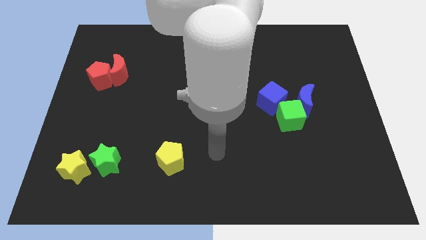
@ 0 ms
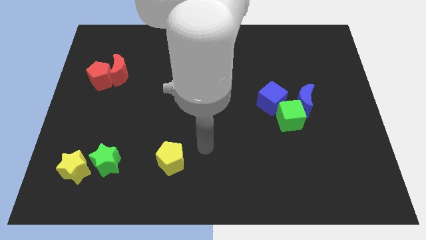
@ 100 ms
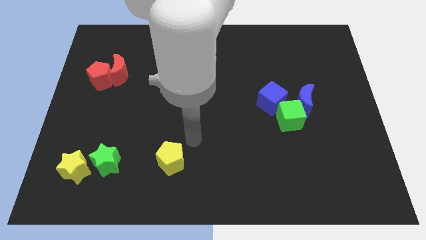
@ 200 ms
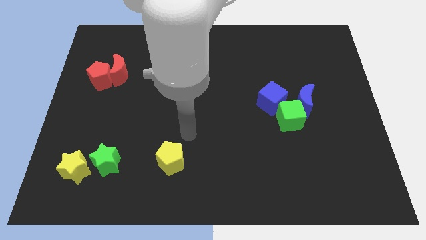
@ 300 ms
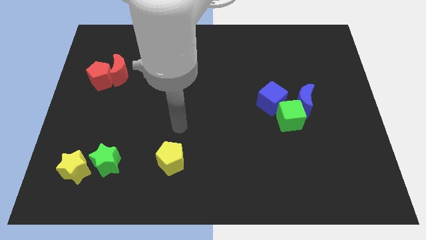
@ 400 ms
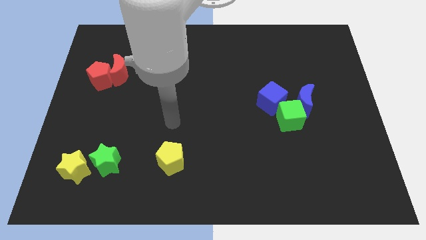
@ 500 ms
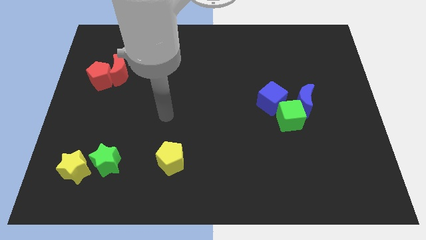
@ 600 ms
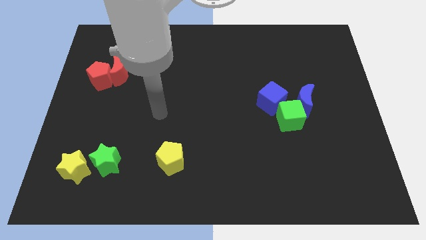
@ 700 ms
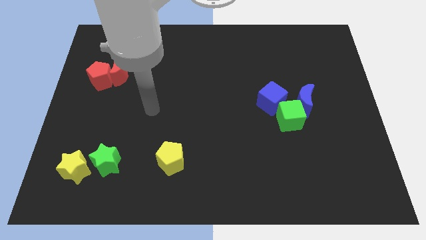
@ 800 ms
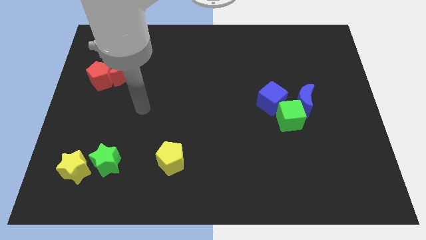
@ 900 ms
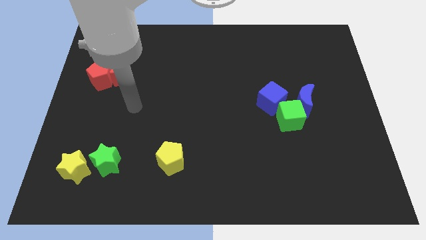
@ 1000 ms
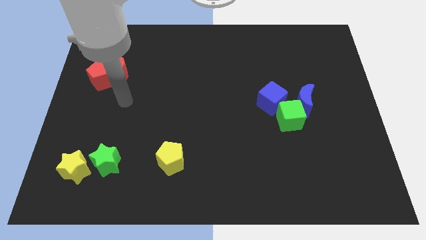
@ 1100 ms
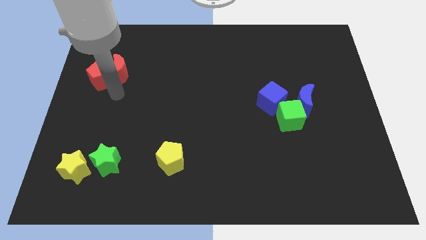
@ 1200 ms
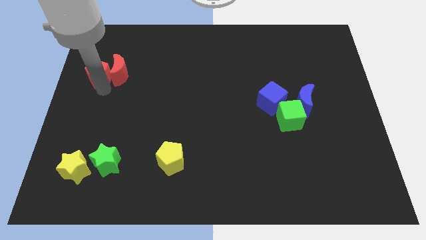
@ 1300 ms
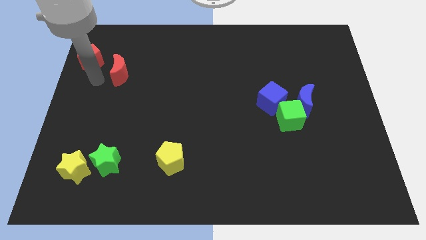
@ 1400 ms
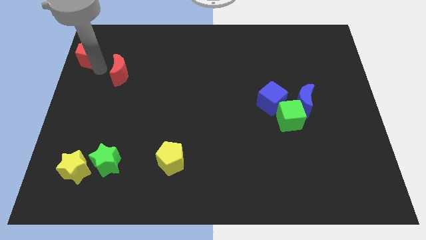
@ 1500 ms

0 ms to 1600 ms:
move the red moon away from the red pentagon

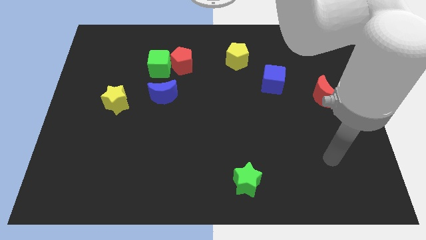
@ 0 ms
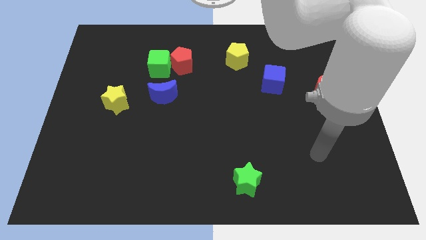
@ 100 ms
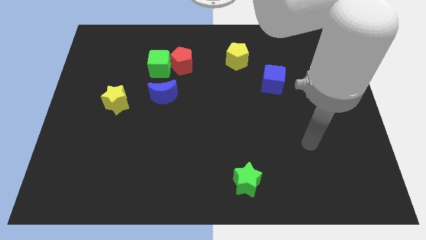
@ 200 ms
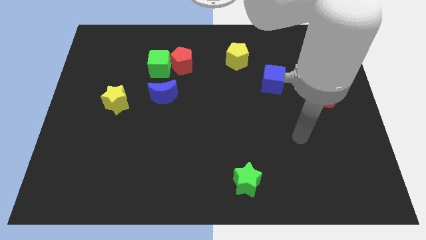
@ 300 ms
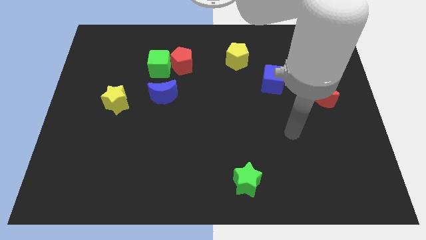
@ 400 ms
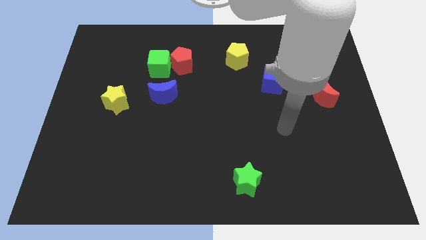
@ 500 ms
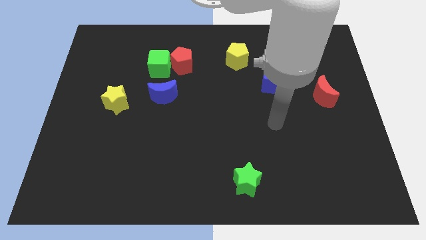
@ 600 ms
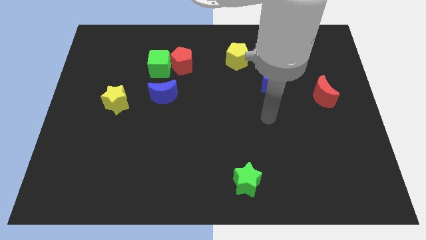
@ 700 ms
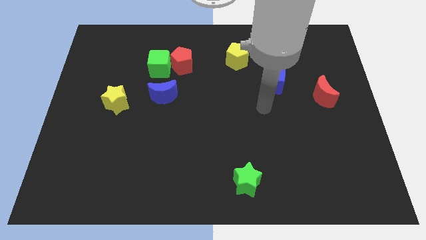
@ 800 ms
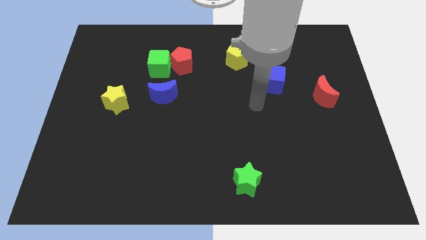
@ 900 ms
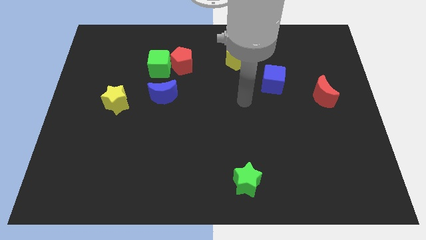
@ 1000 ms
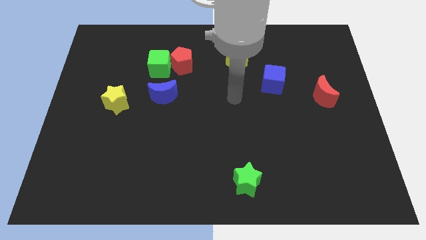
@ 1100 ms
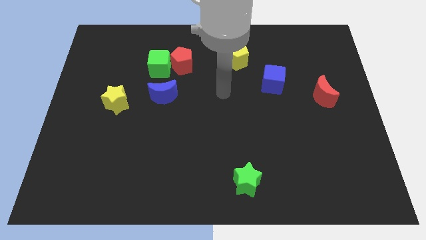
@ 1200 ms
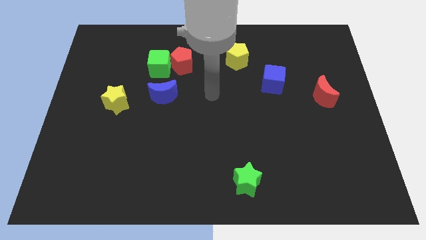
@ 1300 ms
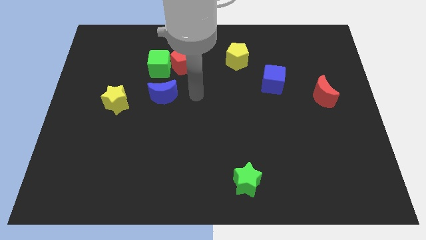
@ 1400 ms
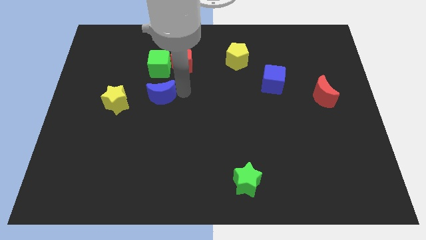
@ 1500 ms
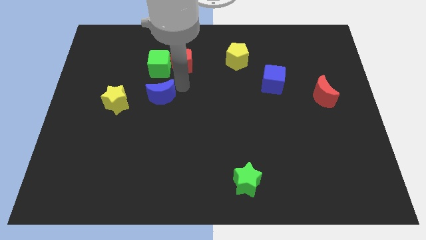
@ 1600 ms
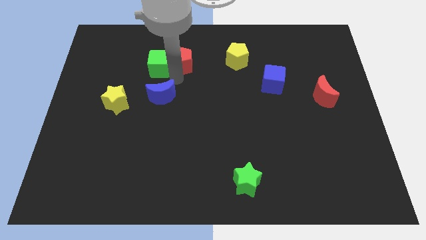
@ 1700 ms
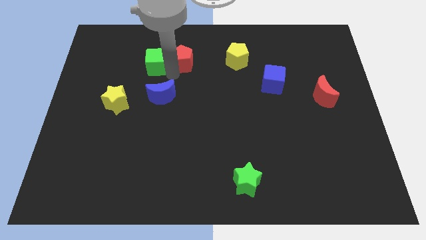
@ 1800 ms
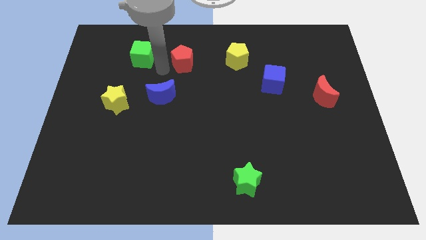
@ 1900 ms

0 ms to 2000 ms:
pull the red pentagon apart from the green cube

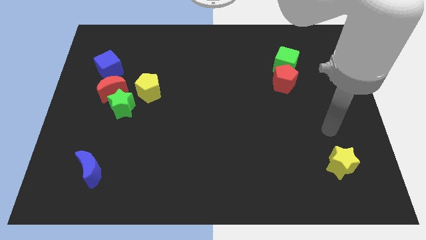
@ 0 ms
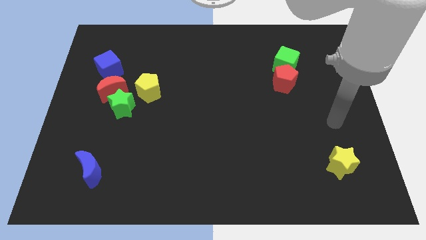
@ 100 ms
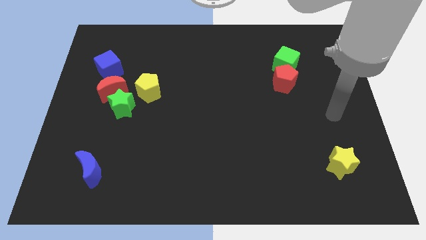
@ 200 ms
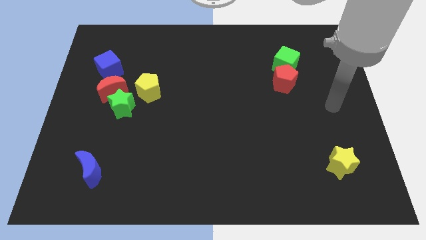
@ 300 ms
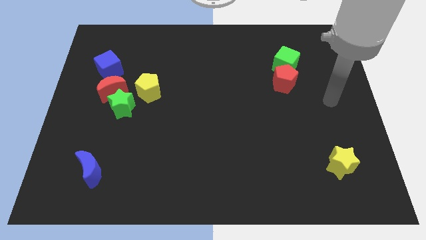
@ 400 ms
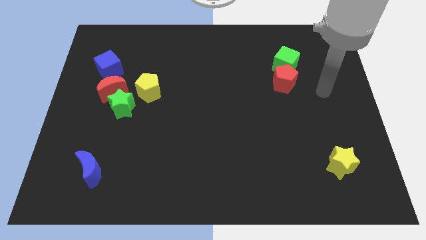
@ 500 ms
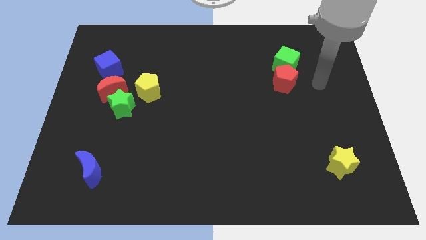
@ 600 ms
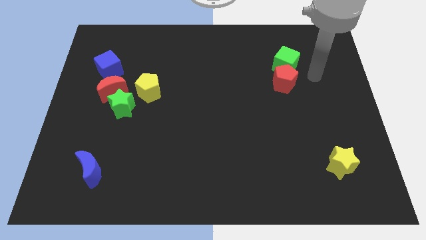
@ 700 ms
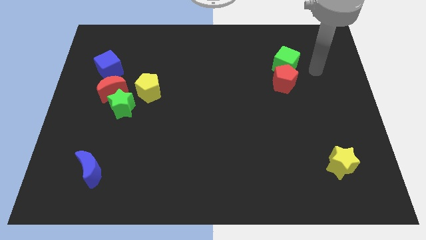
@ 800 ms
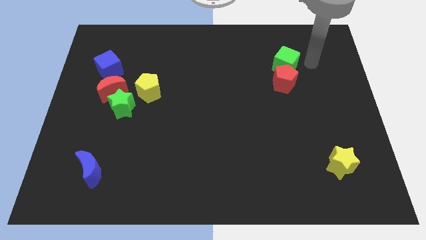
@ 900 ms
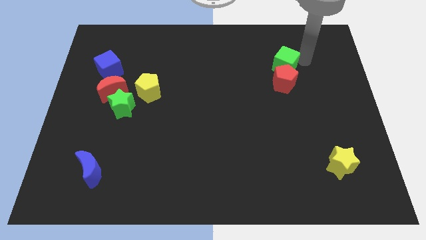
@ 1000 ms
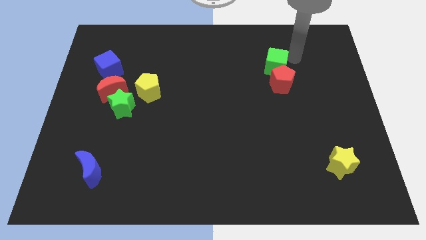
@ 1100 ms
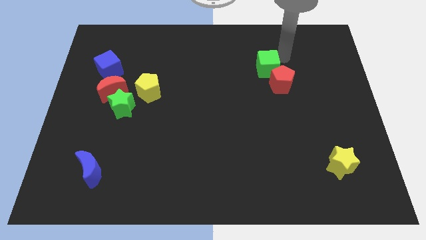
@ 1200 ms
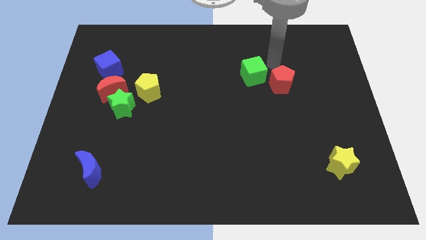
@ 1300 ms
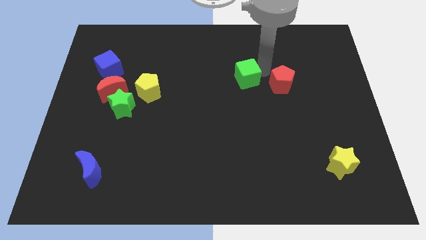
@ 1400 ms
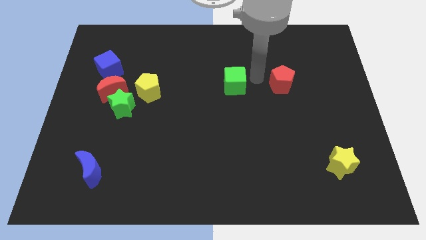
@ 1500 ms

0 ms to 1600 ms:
separate the red pentagon from the green cube

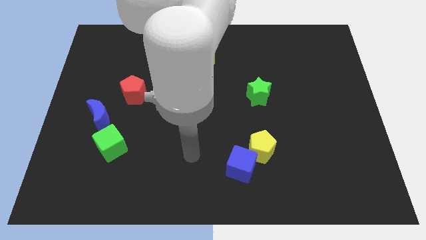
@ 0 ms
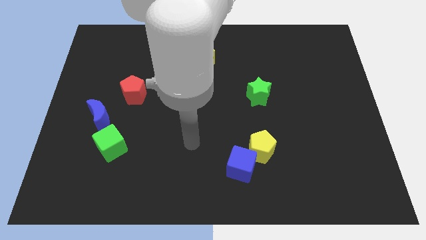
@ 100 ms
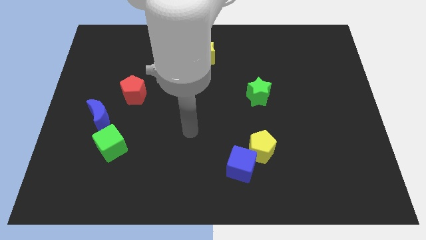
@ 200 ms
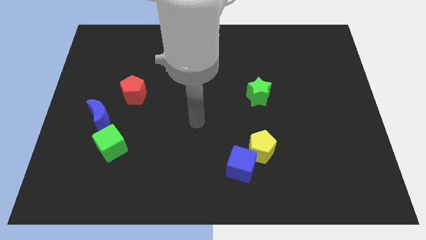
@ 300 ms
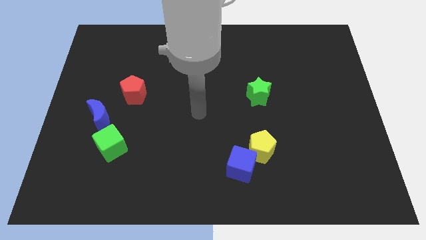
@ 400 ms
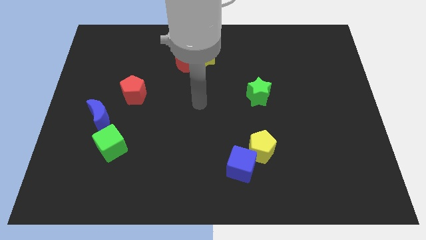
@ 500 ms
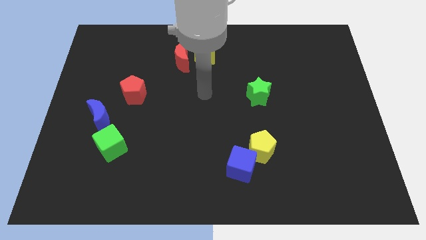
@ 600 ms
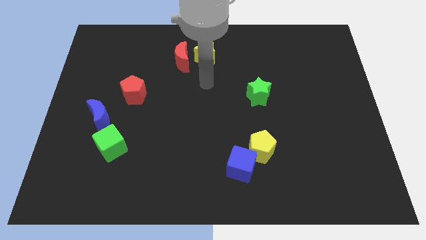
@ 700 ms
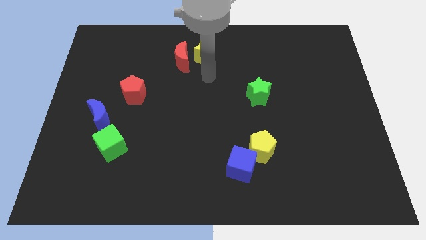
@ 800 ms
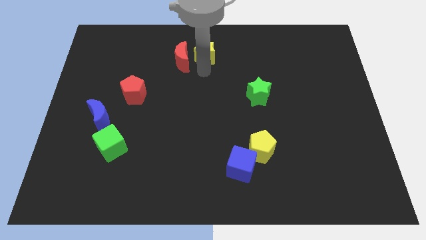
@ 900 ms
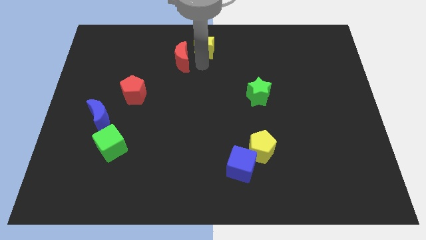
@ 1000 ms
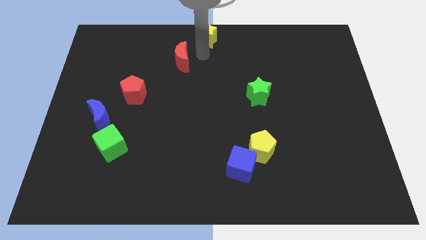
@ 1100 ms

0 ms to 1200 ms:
separate the red moon from the yellow star

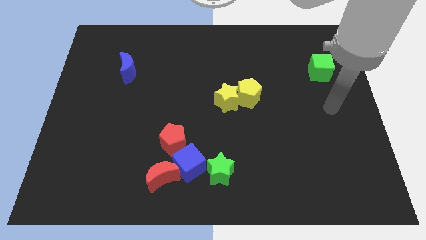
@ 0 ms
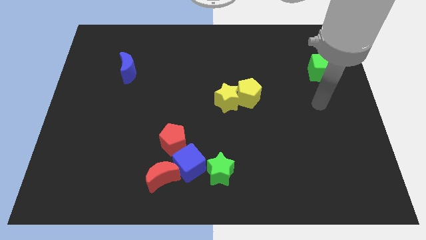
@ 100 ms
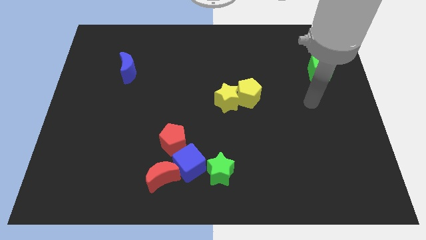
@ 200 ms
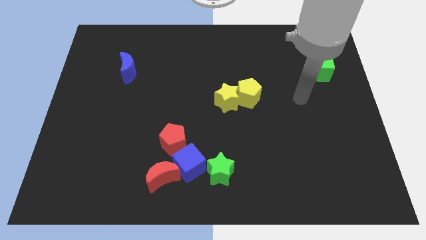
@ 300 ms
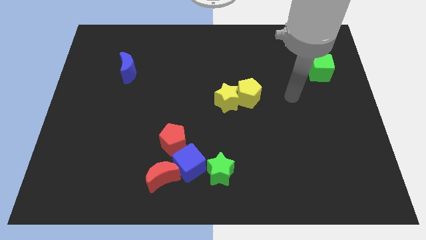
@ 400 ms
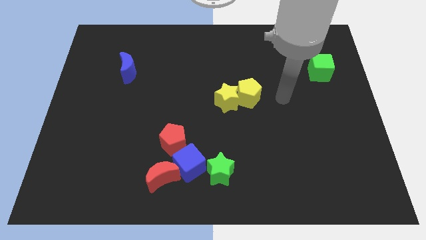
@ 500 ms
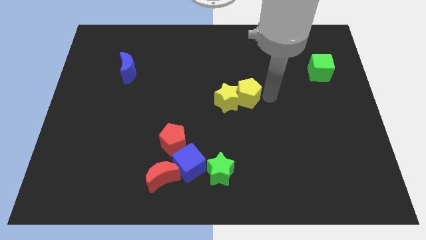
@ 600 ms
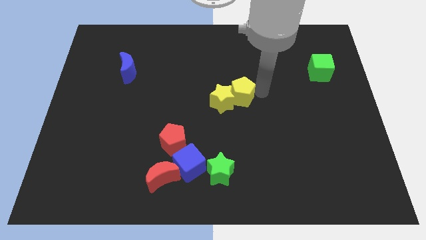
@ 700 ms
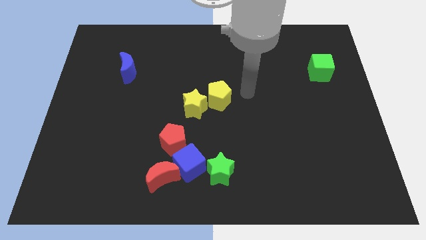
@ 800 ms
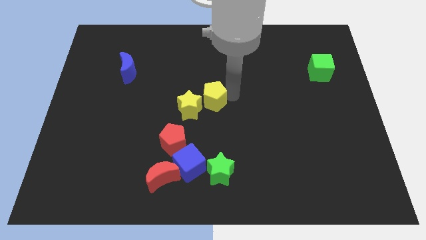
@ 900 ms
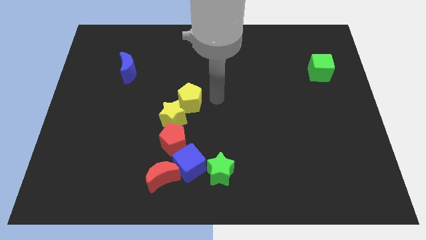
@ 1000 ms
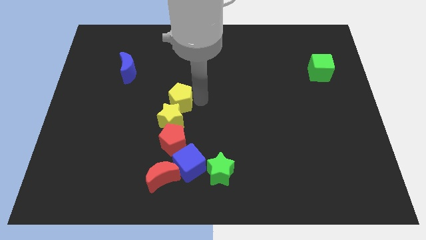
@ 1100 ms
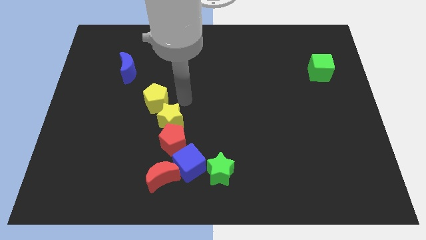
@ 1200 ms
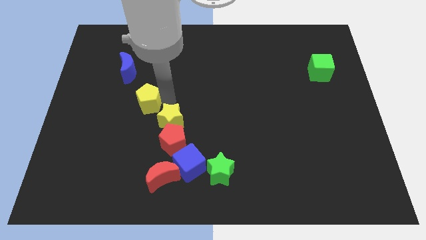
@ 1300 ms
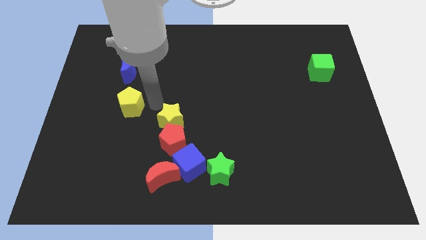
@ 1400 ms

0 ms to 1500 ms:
move the yellow star away from the yellow pentagon

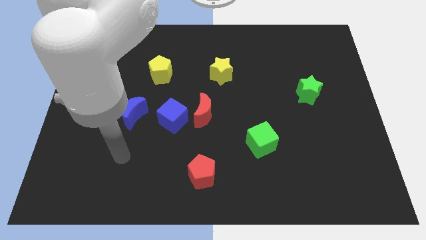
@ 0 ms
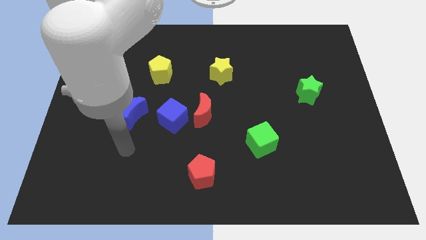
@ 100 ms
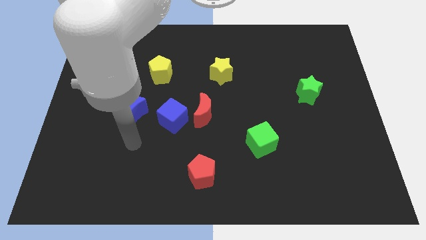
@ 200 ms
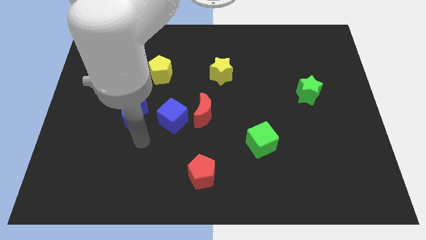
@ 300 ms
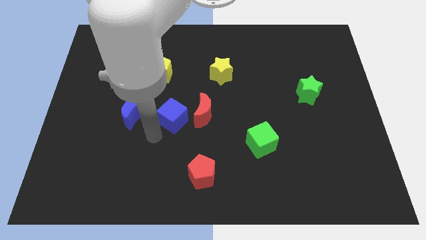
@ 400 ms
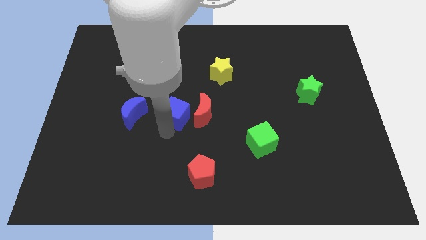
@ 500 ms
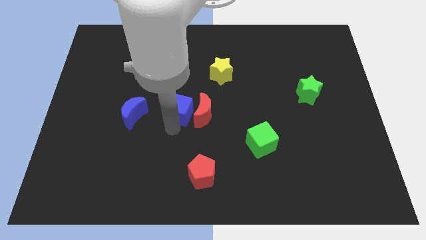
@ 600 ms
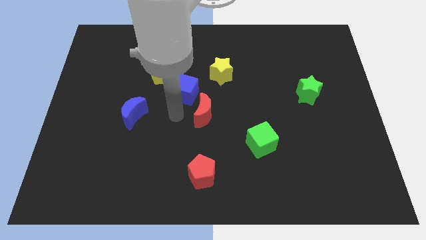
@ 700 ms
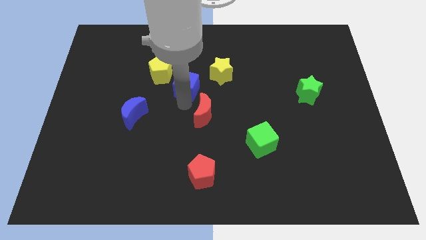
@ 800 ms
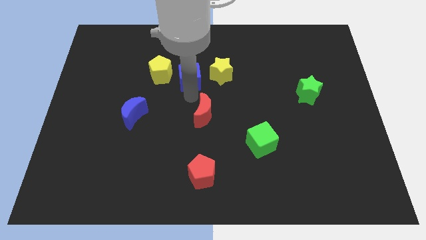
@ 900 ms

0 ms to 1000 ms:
move the red moon away from the blue cube

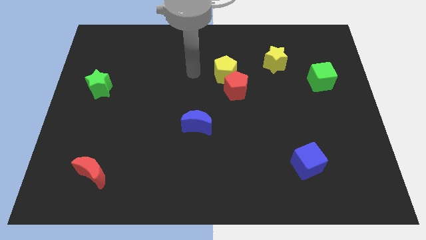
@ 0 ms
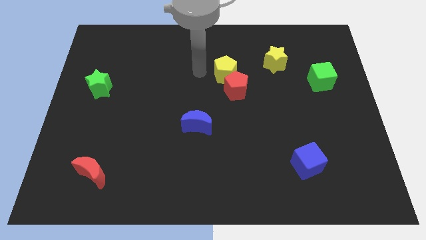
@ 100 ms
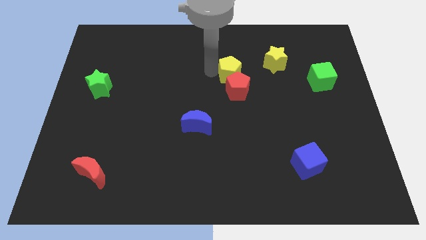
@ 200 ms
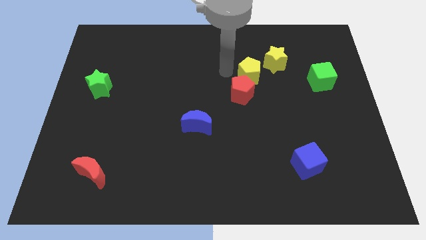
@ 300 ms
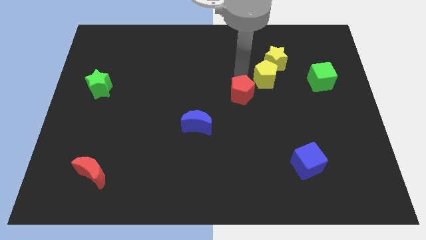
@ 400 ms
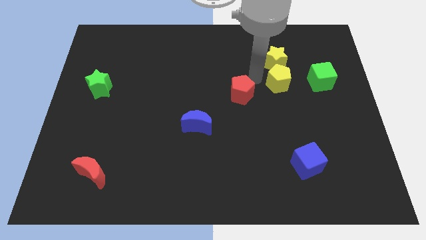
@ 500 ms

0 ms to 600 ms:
move the red pentagon away from the yellow pentagon
